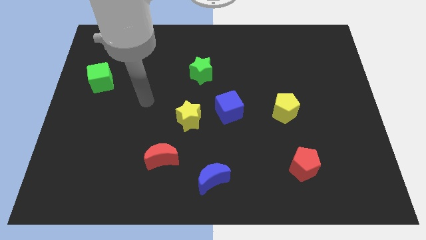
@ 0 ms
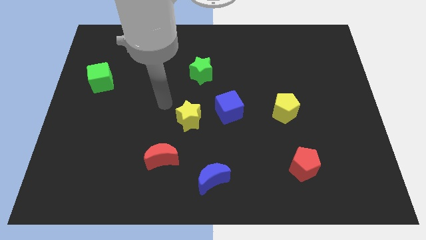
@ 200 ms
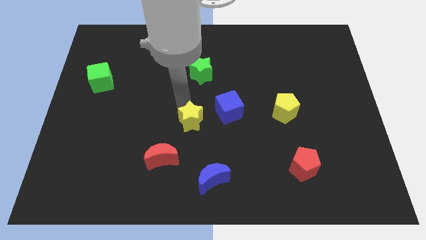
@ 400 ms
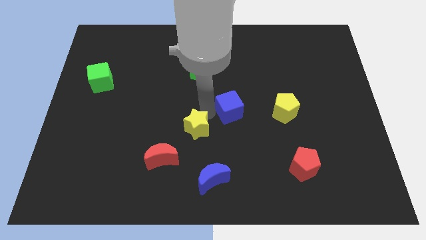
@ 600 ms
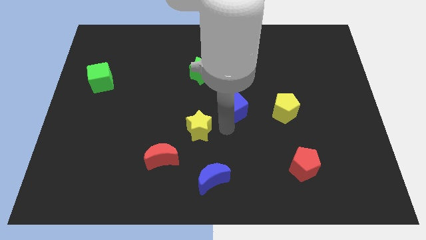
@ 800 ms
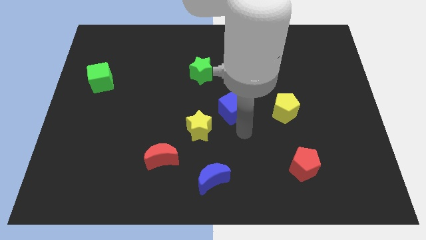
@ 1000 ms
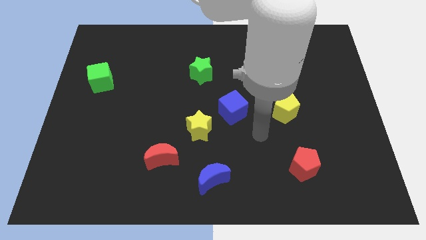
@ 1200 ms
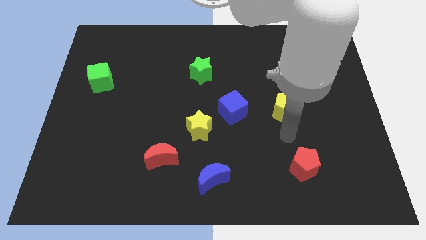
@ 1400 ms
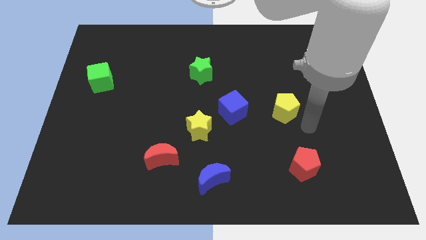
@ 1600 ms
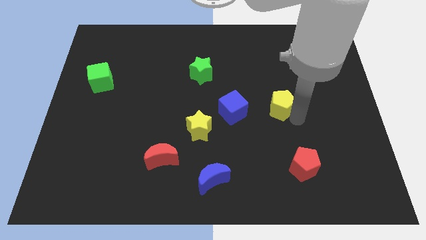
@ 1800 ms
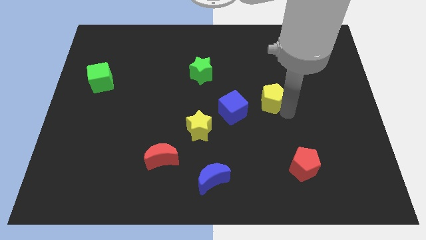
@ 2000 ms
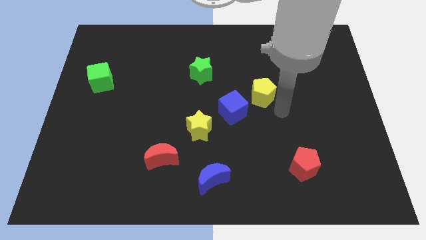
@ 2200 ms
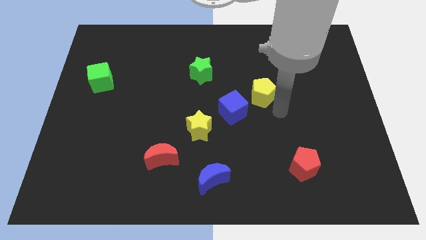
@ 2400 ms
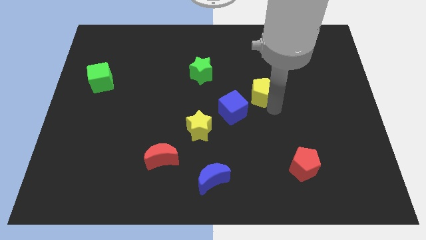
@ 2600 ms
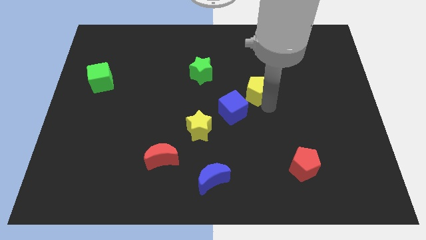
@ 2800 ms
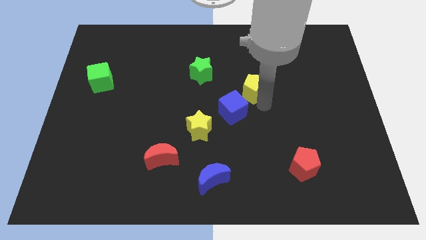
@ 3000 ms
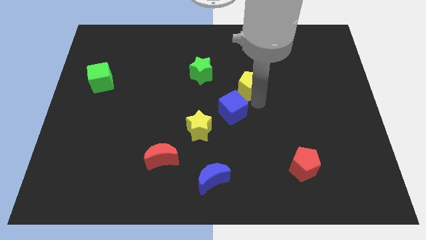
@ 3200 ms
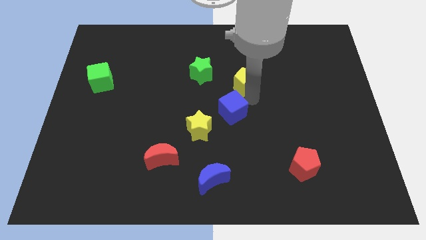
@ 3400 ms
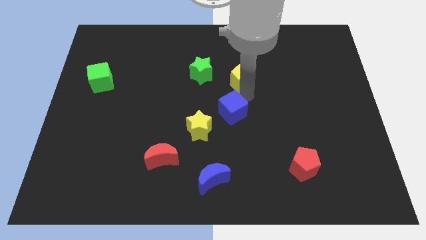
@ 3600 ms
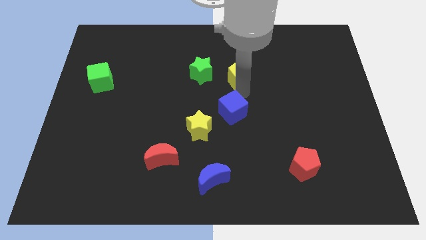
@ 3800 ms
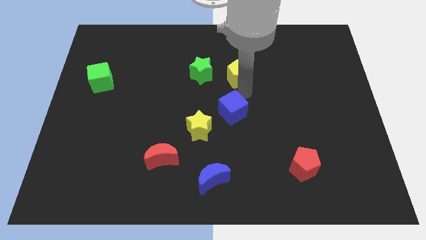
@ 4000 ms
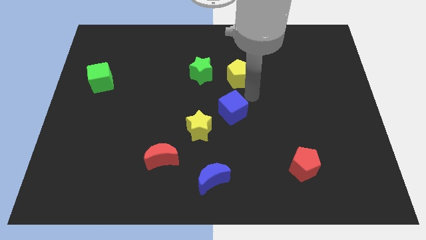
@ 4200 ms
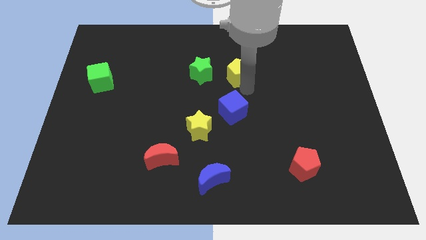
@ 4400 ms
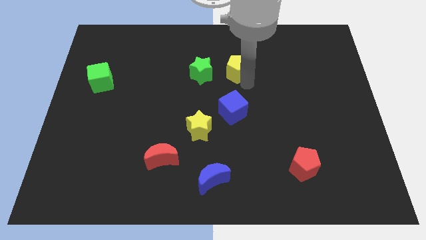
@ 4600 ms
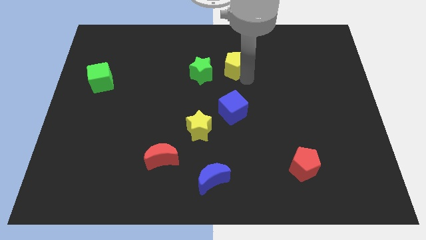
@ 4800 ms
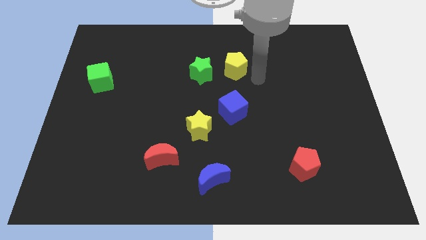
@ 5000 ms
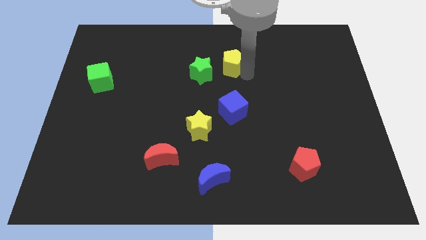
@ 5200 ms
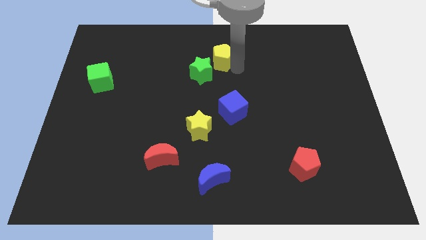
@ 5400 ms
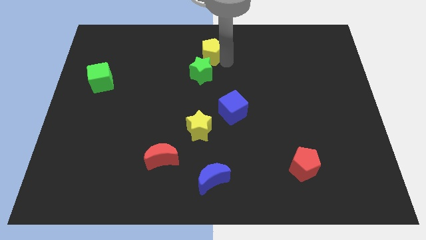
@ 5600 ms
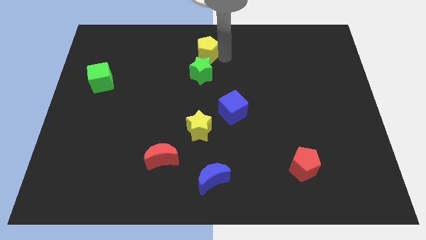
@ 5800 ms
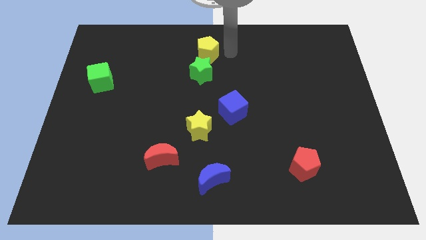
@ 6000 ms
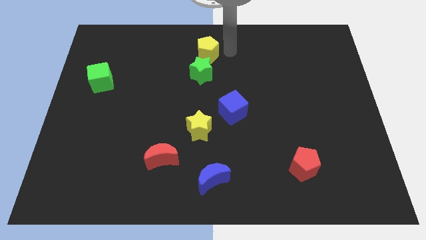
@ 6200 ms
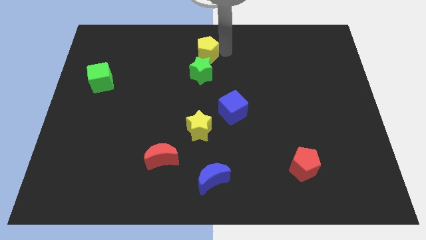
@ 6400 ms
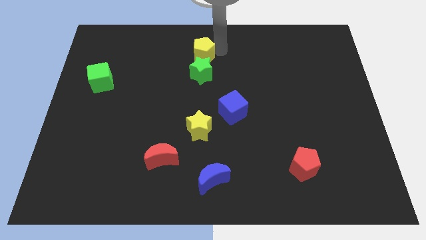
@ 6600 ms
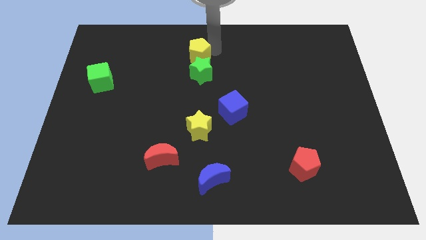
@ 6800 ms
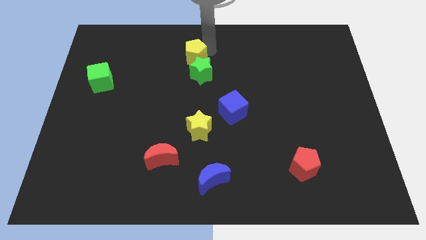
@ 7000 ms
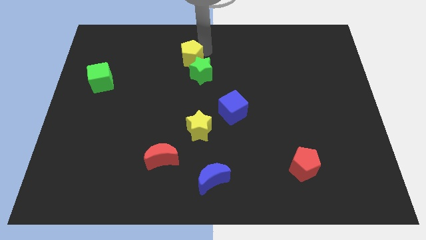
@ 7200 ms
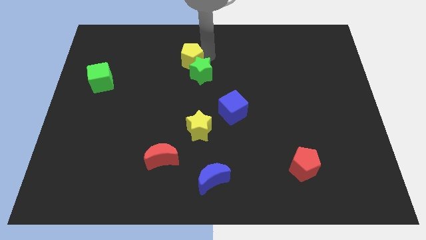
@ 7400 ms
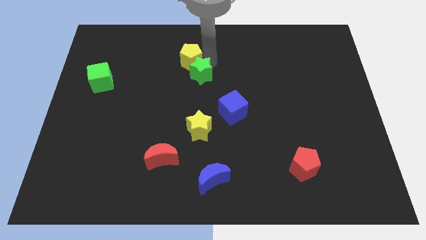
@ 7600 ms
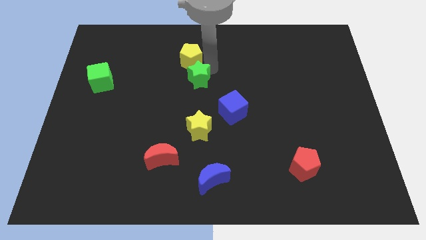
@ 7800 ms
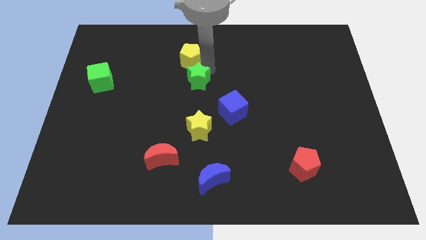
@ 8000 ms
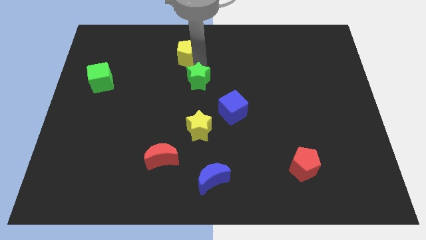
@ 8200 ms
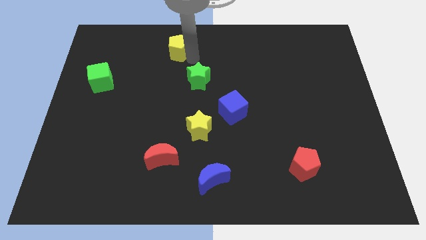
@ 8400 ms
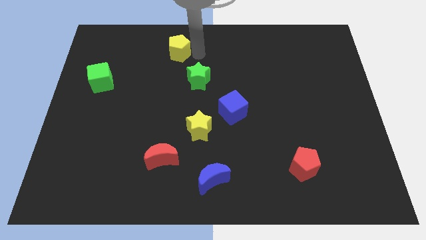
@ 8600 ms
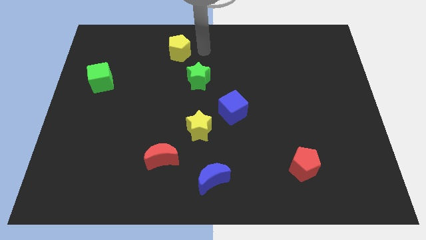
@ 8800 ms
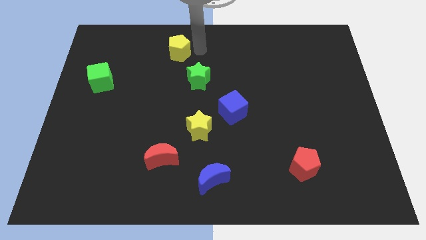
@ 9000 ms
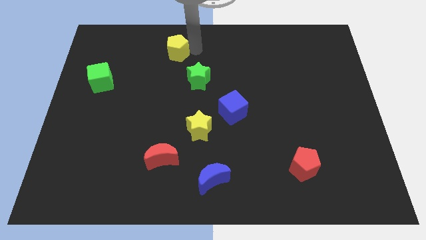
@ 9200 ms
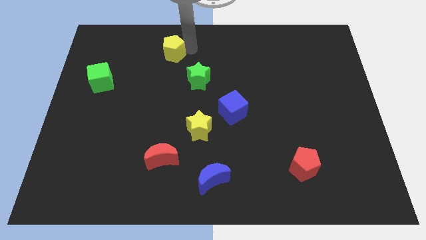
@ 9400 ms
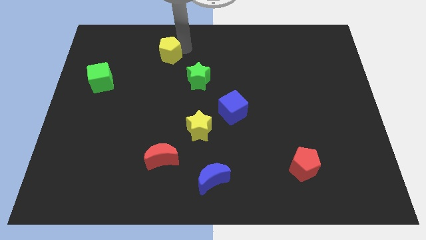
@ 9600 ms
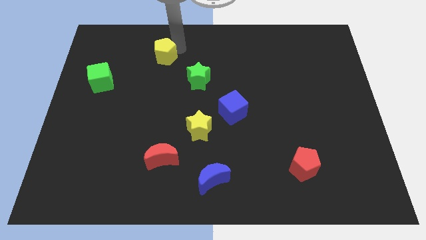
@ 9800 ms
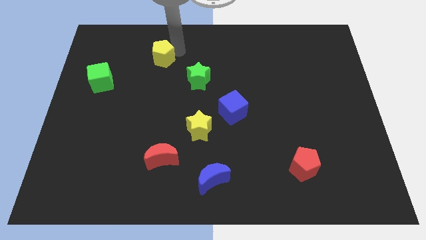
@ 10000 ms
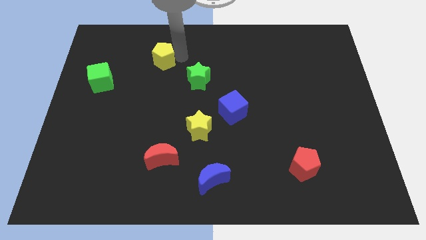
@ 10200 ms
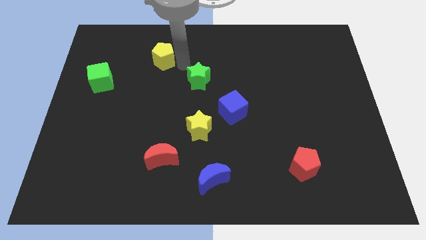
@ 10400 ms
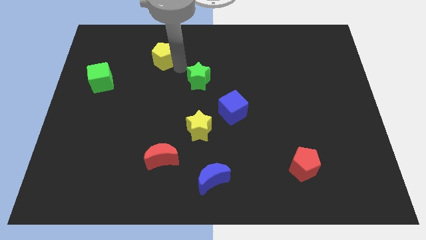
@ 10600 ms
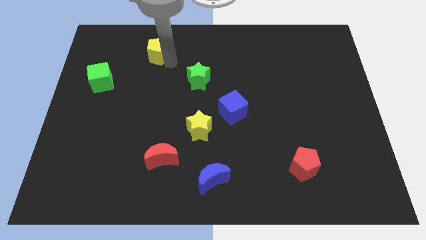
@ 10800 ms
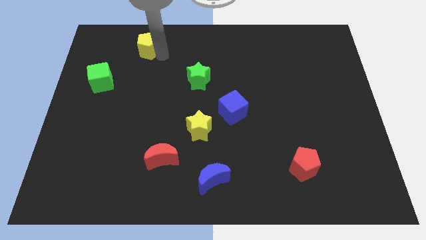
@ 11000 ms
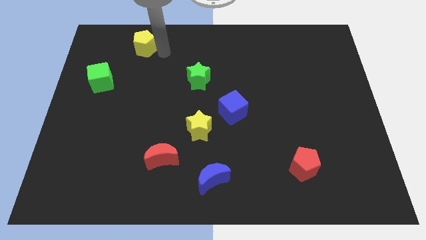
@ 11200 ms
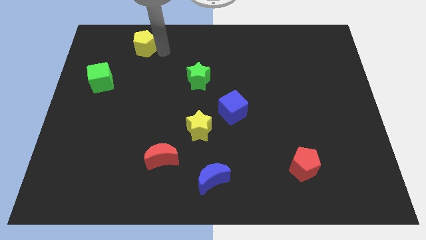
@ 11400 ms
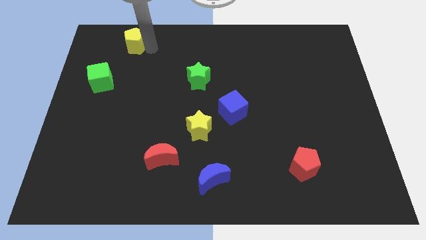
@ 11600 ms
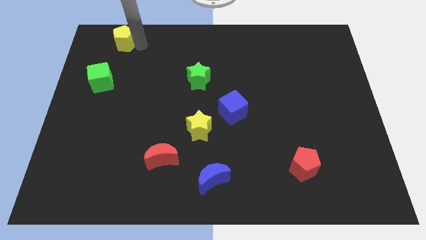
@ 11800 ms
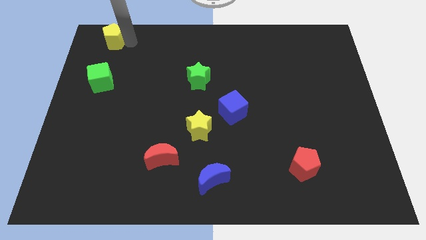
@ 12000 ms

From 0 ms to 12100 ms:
push the yellow pentagon to the top left of the board

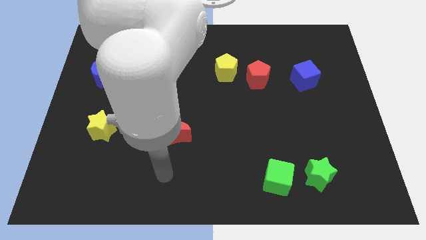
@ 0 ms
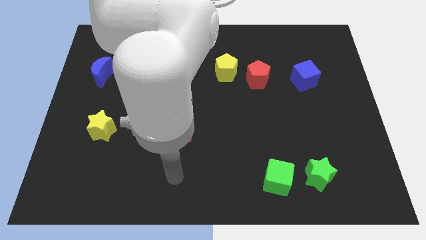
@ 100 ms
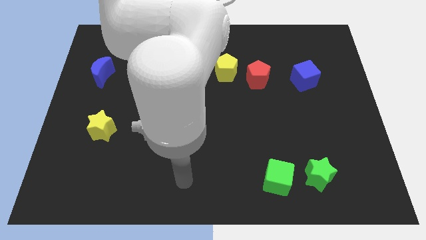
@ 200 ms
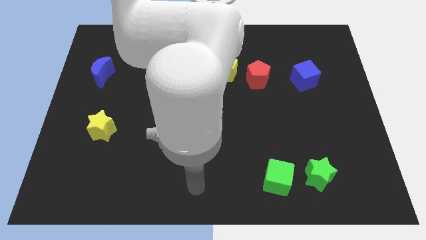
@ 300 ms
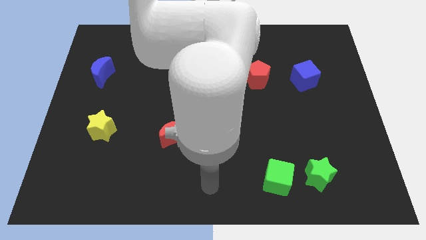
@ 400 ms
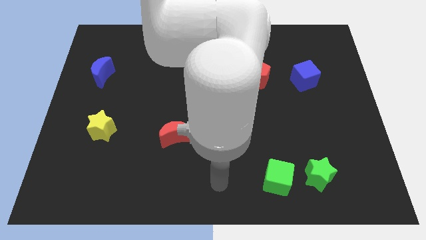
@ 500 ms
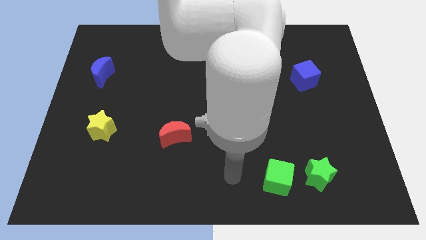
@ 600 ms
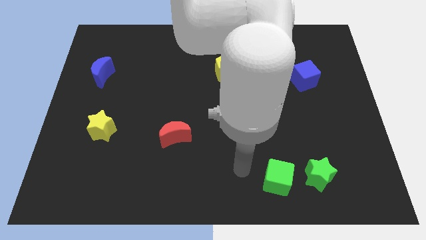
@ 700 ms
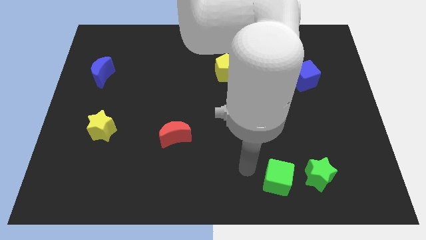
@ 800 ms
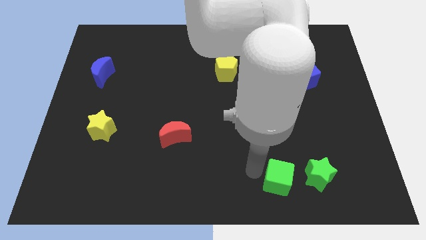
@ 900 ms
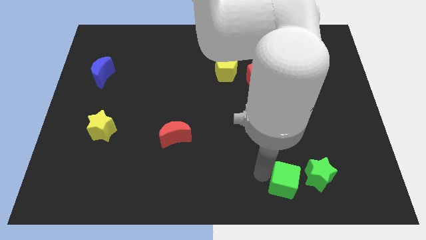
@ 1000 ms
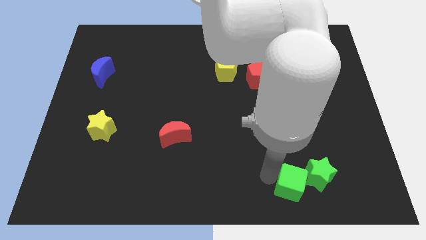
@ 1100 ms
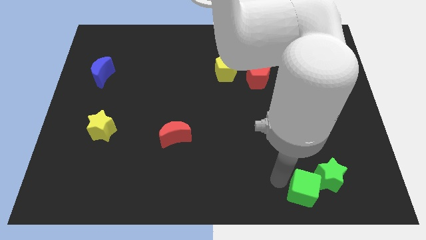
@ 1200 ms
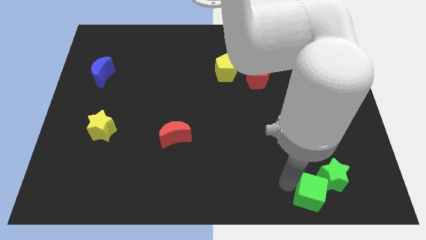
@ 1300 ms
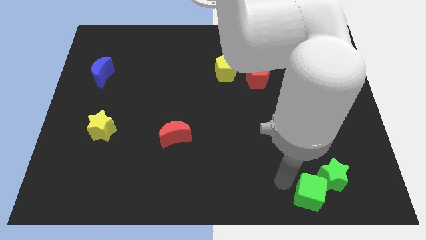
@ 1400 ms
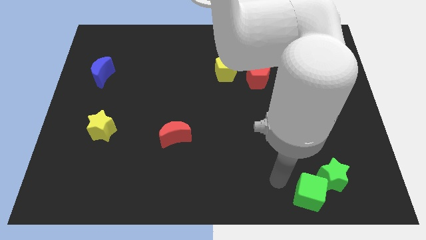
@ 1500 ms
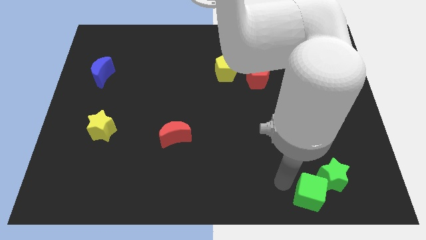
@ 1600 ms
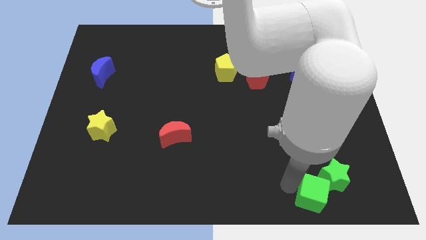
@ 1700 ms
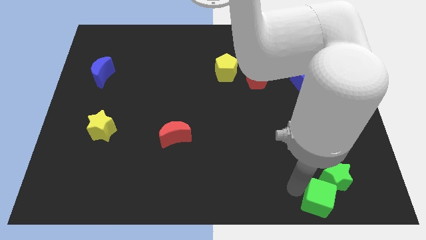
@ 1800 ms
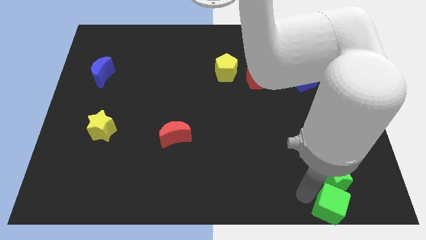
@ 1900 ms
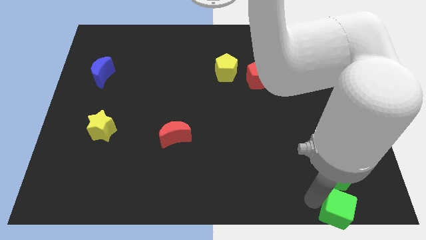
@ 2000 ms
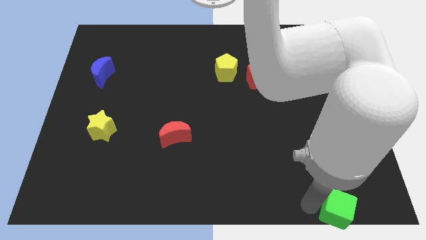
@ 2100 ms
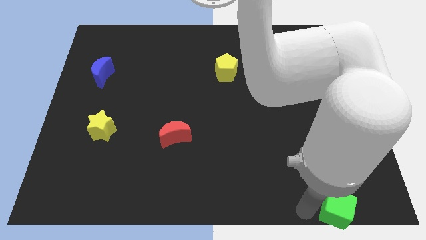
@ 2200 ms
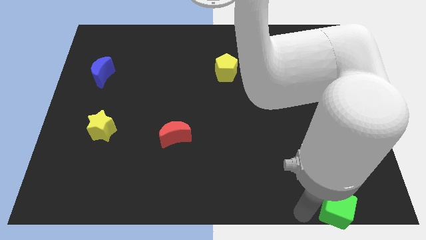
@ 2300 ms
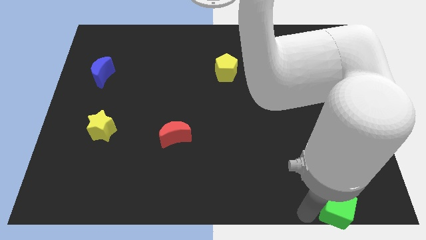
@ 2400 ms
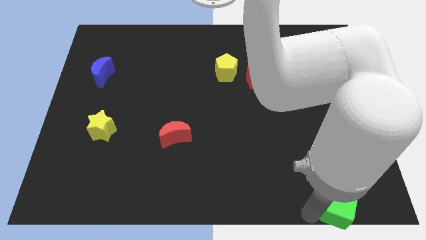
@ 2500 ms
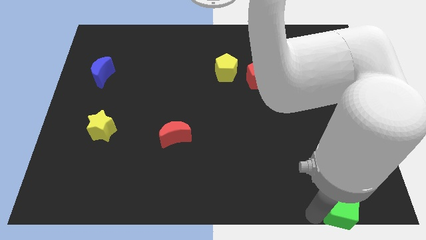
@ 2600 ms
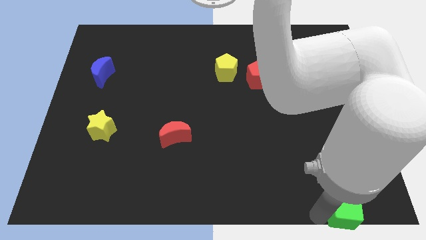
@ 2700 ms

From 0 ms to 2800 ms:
push the green cube to the bottom right of the board
